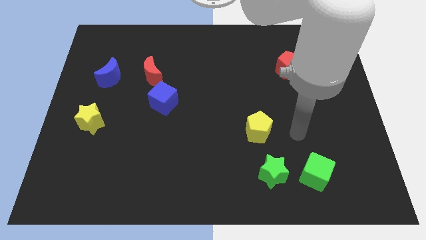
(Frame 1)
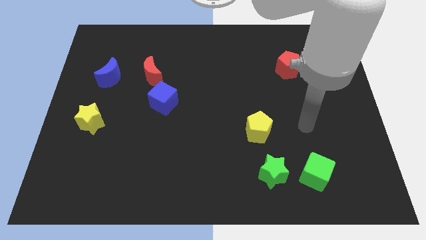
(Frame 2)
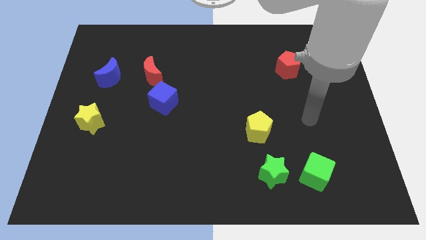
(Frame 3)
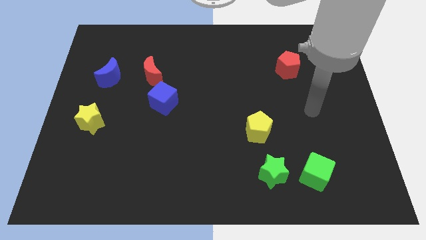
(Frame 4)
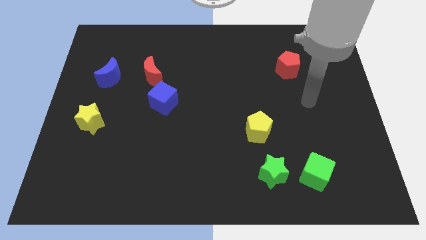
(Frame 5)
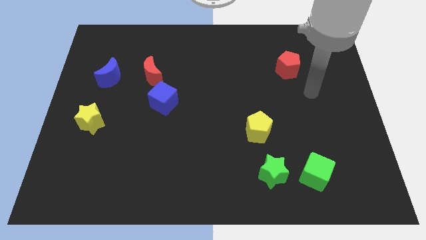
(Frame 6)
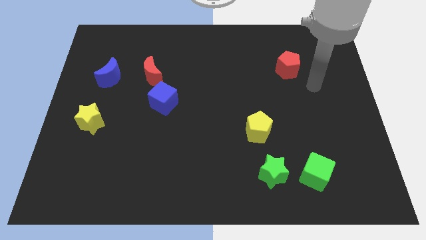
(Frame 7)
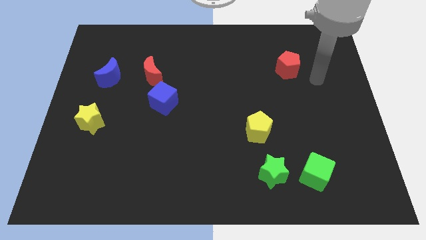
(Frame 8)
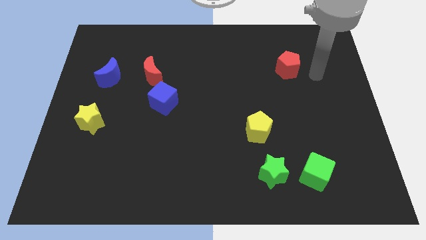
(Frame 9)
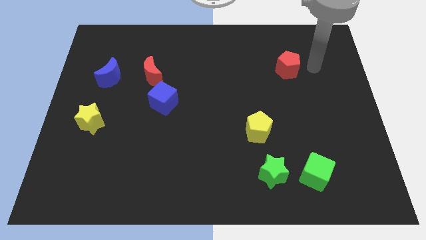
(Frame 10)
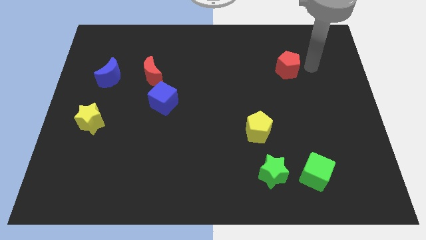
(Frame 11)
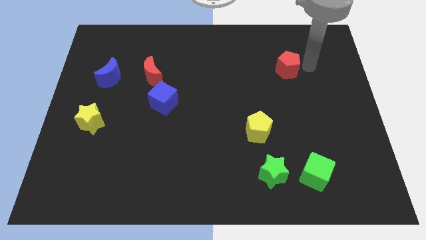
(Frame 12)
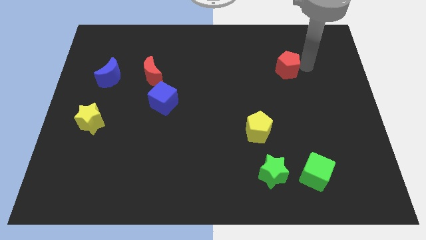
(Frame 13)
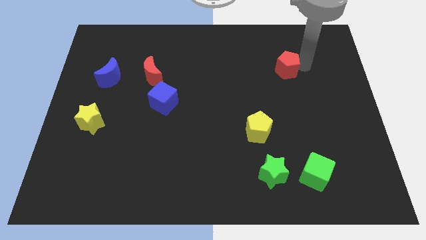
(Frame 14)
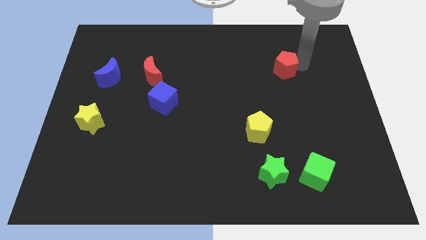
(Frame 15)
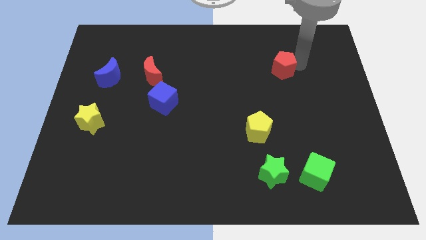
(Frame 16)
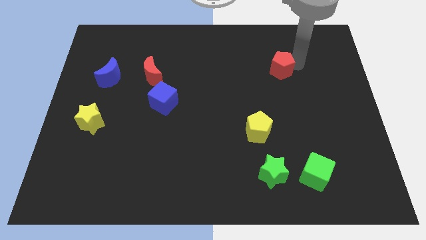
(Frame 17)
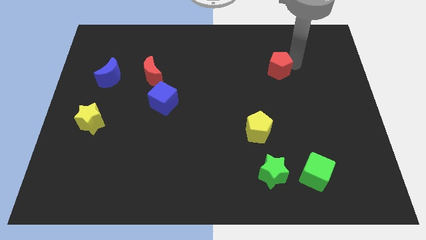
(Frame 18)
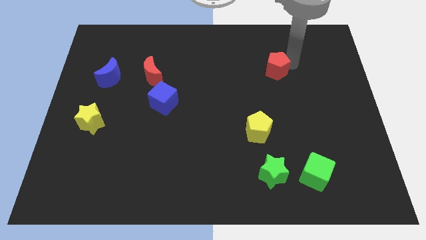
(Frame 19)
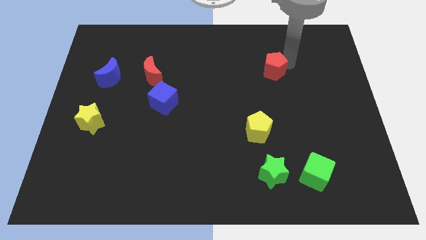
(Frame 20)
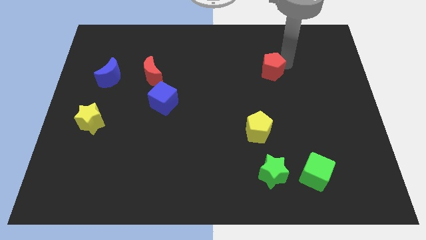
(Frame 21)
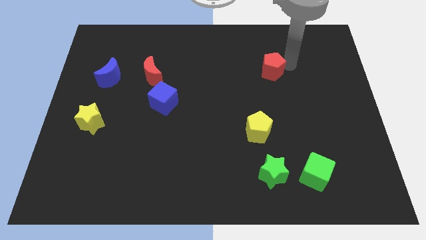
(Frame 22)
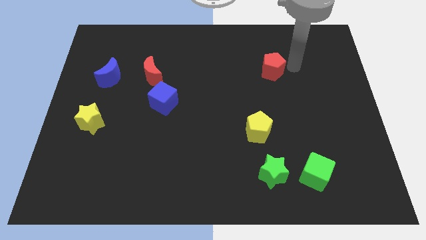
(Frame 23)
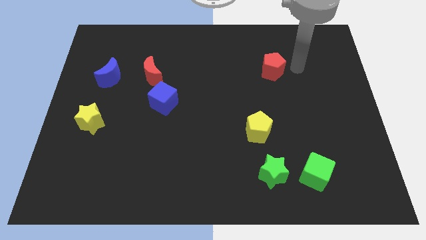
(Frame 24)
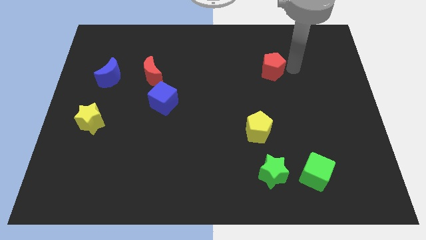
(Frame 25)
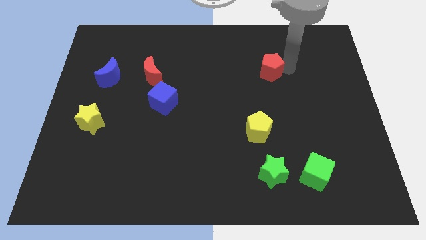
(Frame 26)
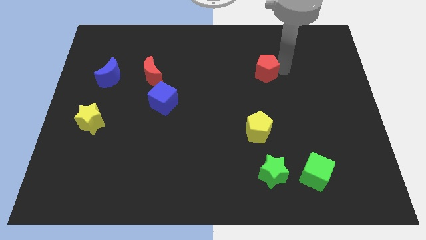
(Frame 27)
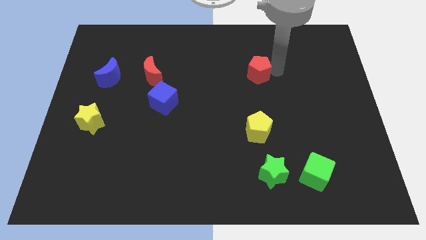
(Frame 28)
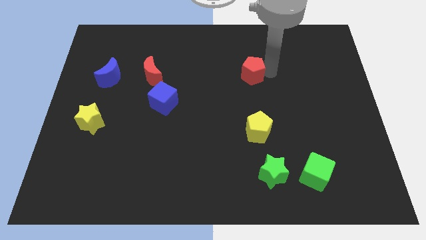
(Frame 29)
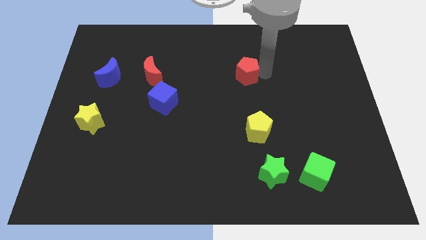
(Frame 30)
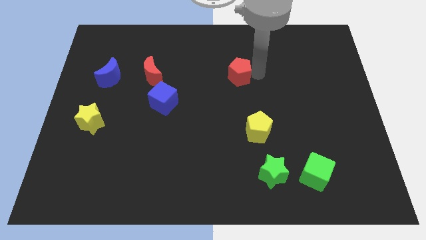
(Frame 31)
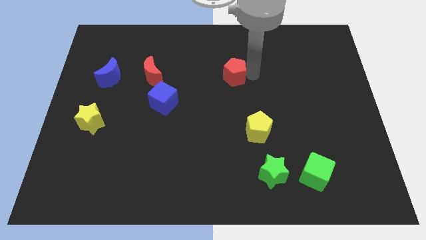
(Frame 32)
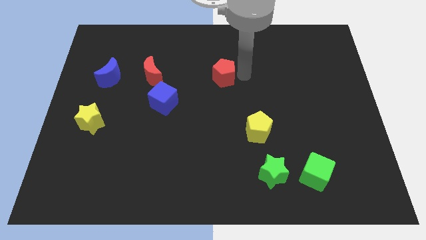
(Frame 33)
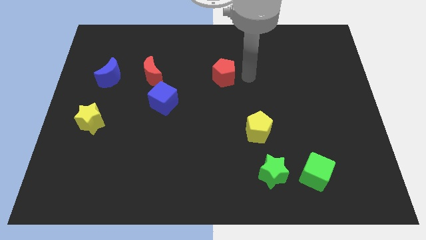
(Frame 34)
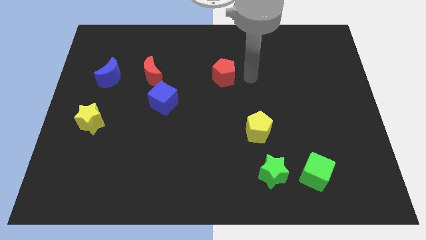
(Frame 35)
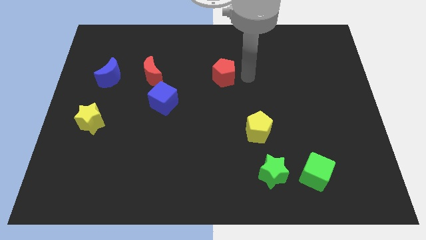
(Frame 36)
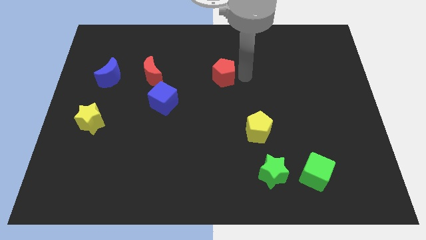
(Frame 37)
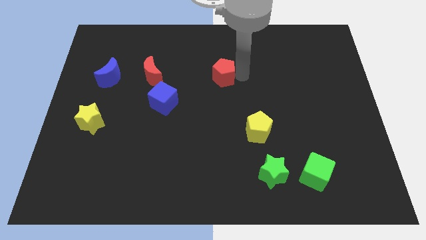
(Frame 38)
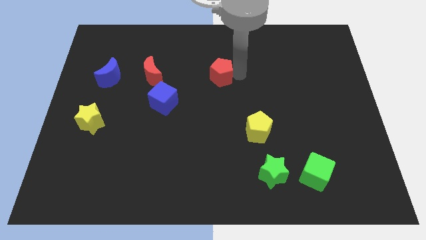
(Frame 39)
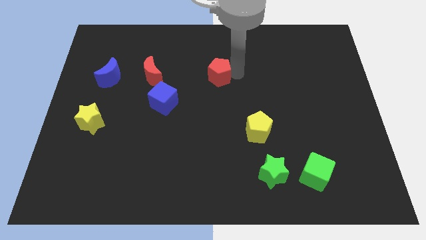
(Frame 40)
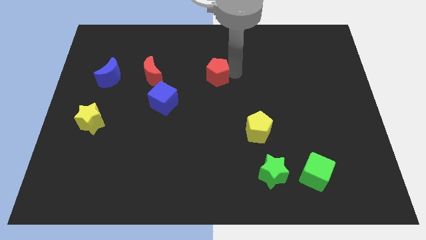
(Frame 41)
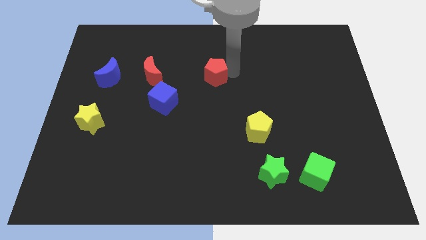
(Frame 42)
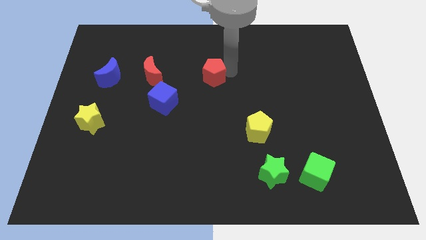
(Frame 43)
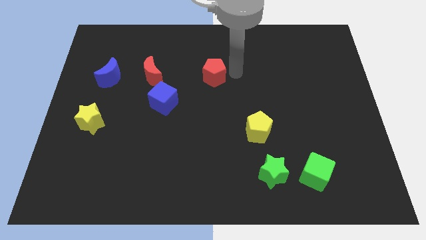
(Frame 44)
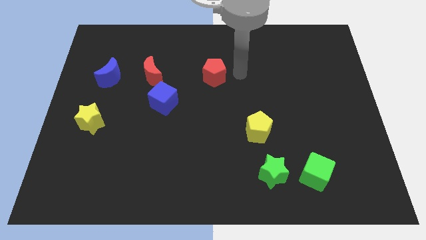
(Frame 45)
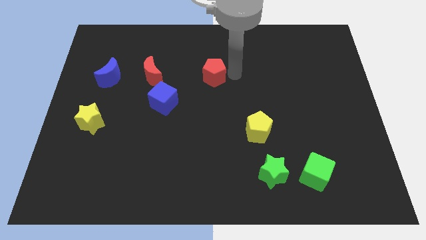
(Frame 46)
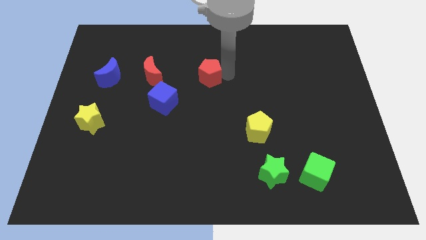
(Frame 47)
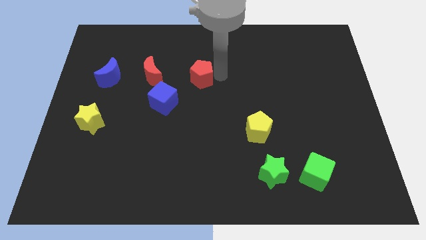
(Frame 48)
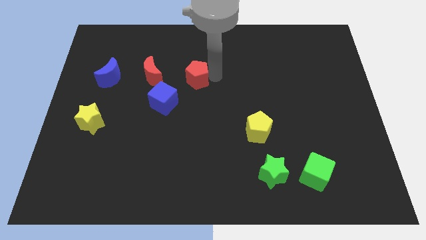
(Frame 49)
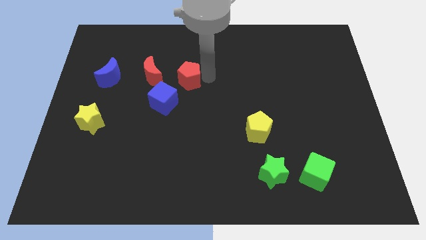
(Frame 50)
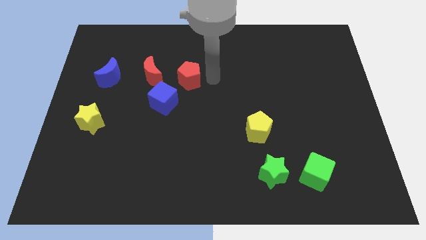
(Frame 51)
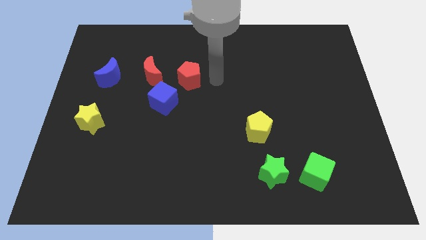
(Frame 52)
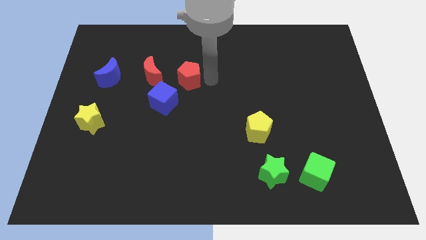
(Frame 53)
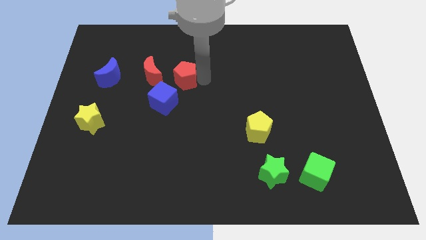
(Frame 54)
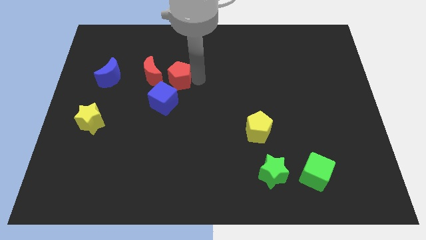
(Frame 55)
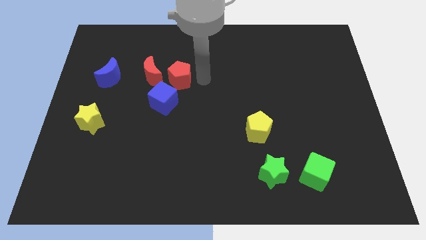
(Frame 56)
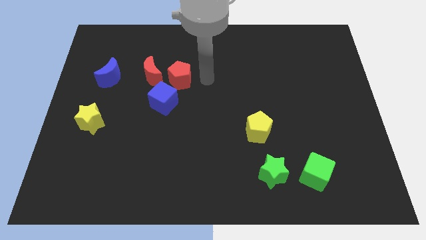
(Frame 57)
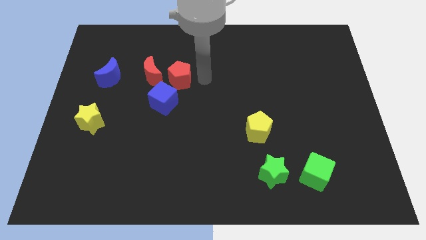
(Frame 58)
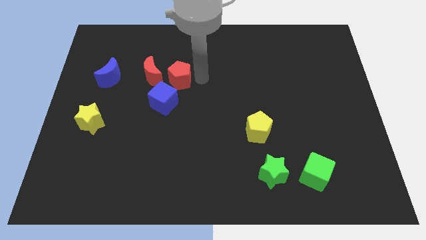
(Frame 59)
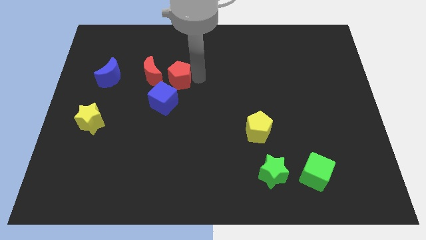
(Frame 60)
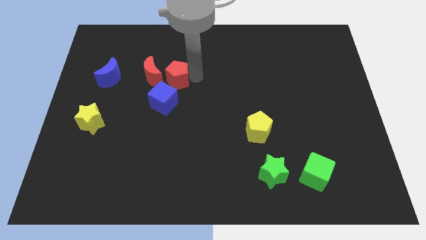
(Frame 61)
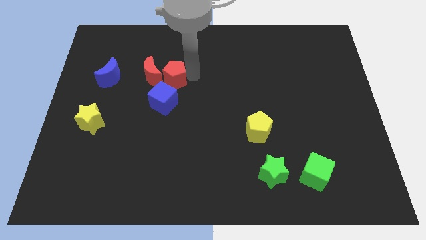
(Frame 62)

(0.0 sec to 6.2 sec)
put the red pentagon to the right side of the blue moon

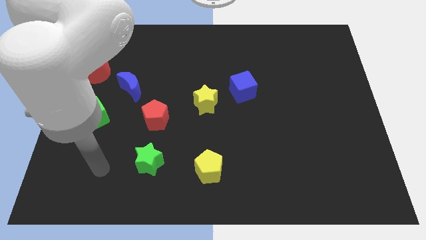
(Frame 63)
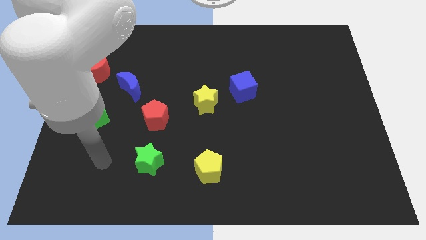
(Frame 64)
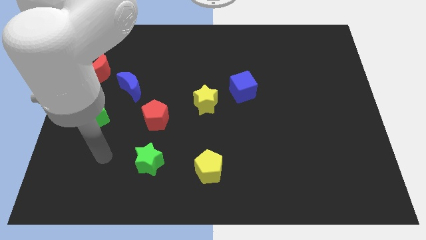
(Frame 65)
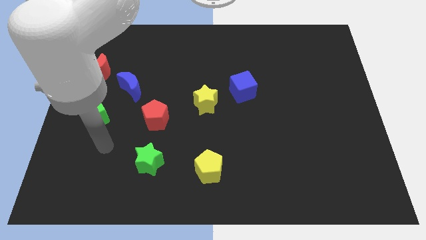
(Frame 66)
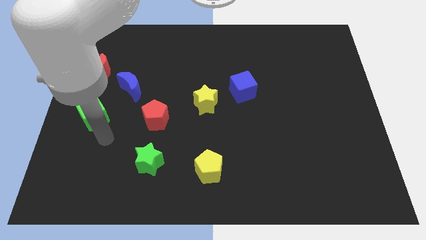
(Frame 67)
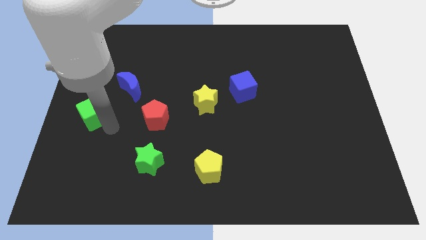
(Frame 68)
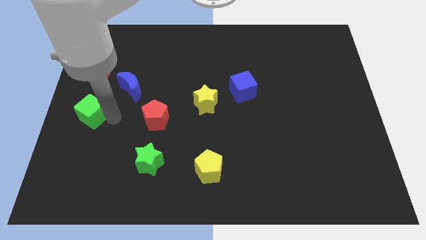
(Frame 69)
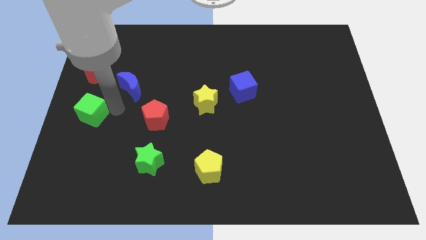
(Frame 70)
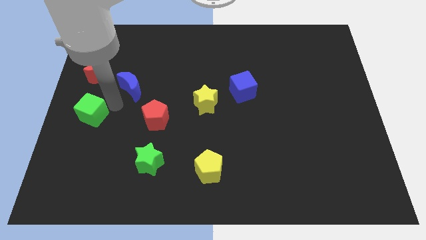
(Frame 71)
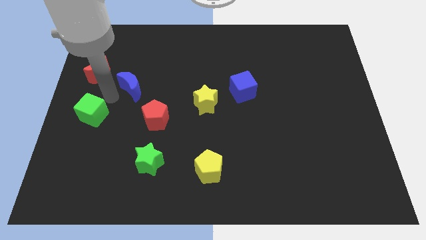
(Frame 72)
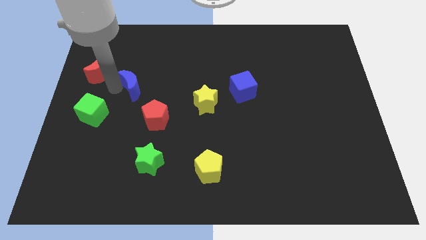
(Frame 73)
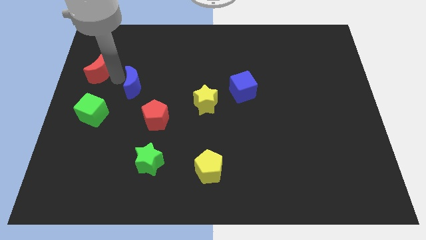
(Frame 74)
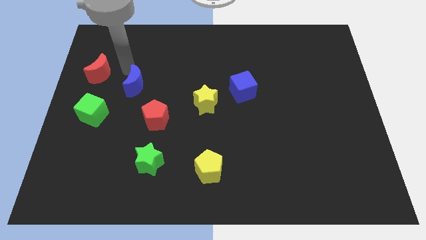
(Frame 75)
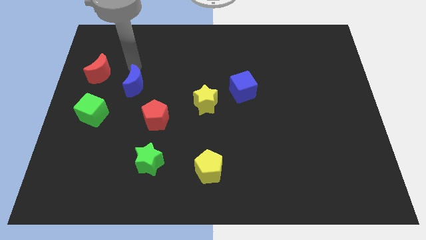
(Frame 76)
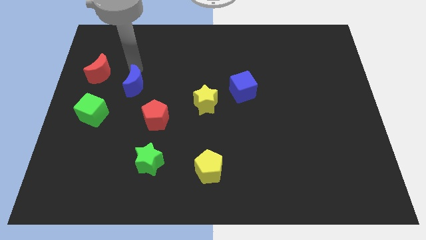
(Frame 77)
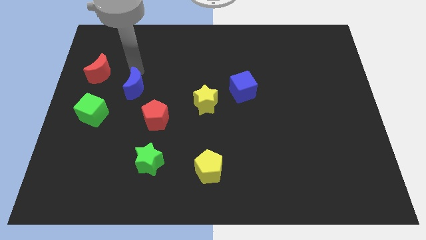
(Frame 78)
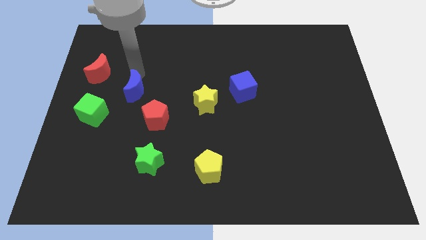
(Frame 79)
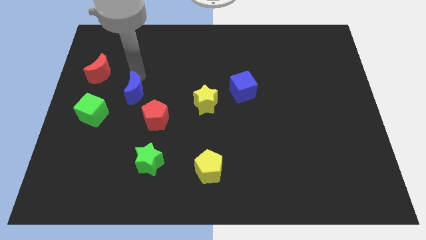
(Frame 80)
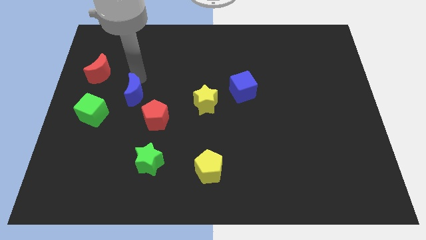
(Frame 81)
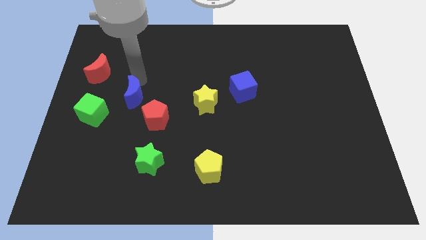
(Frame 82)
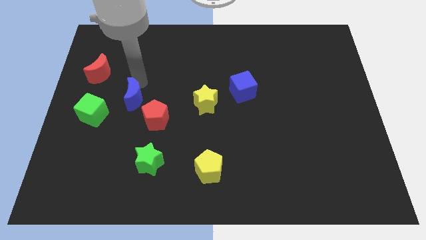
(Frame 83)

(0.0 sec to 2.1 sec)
slide the blue moon to the right of the green cube
